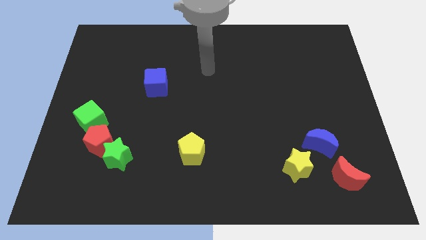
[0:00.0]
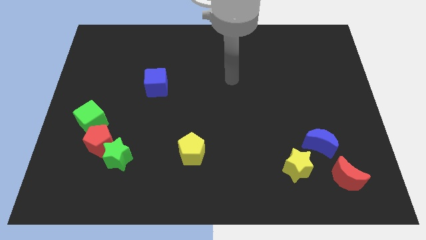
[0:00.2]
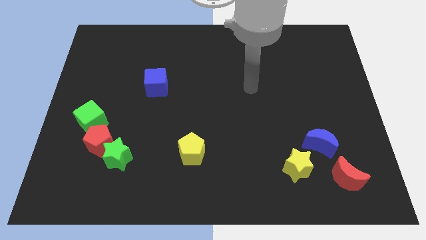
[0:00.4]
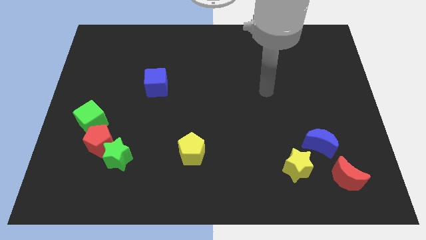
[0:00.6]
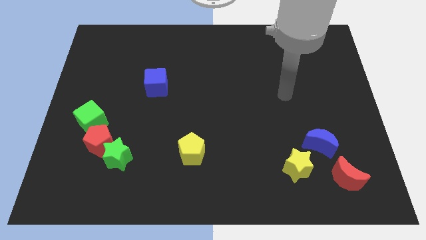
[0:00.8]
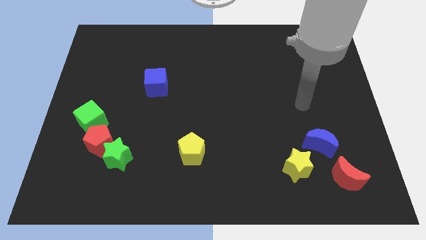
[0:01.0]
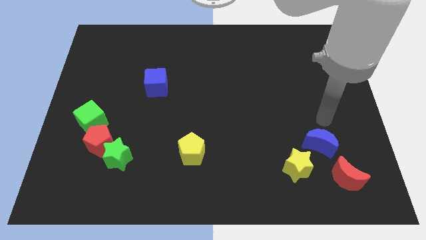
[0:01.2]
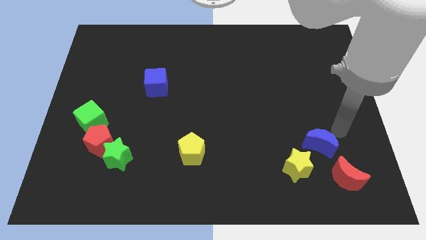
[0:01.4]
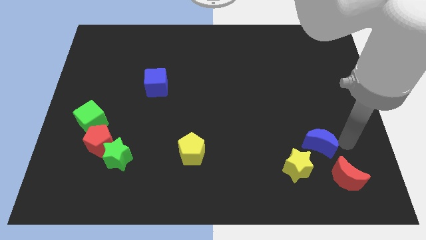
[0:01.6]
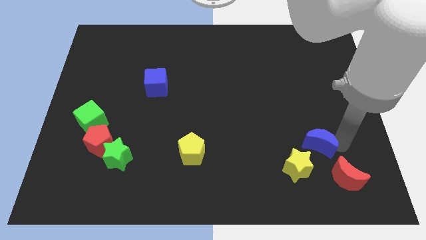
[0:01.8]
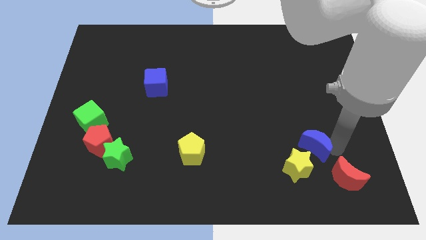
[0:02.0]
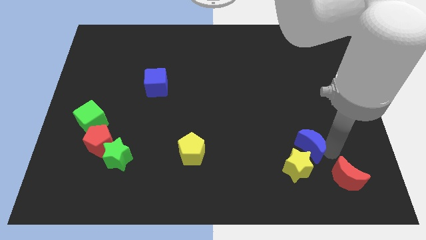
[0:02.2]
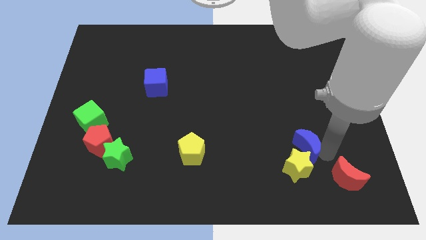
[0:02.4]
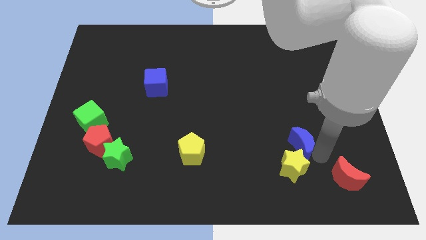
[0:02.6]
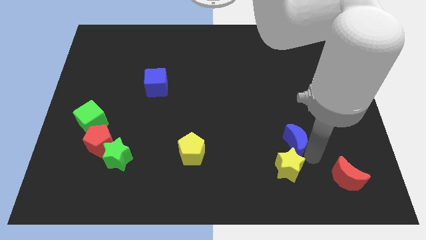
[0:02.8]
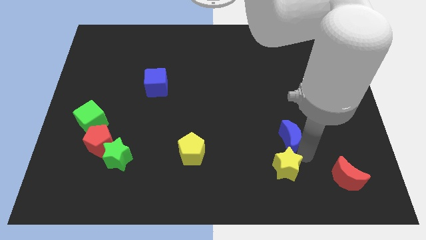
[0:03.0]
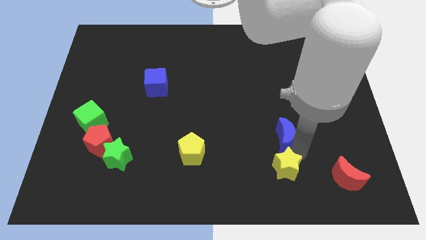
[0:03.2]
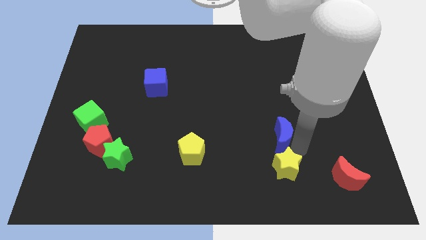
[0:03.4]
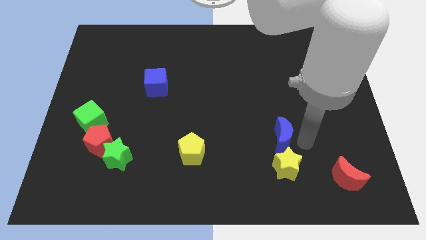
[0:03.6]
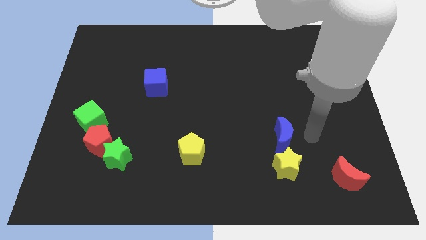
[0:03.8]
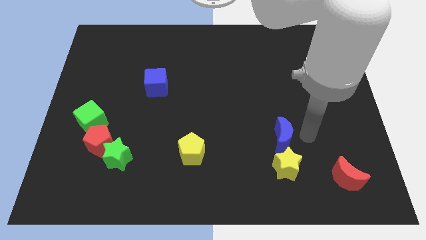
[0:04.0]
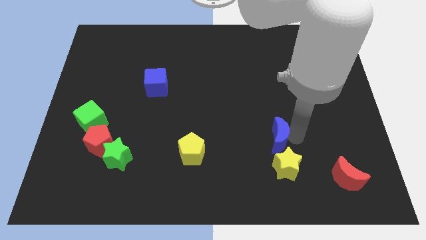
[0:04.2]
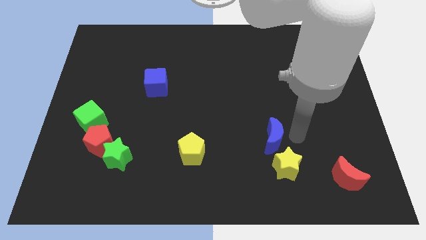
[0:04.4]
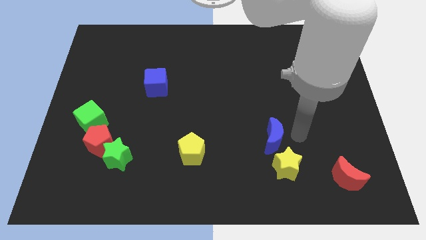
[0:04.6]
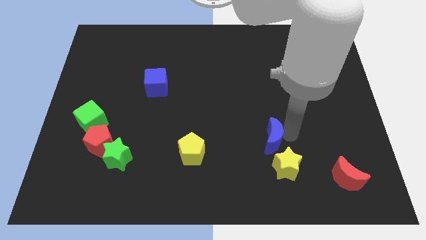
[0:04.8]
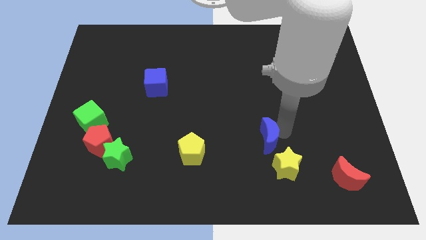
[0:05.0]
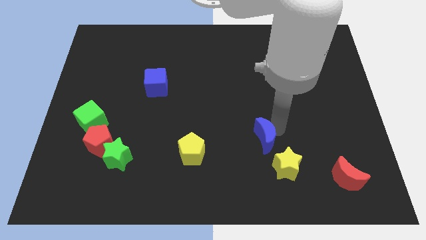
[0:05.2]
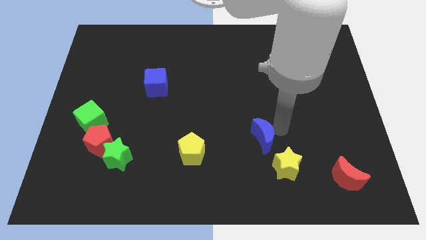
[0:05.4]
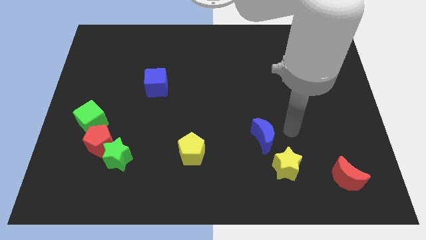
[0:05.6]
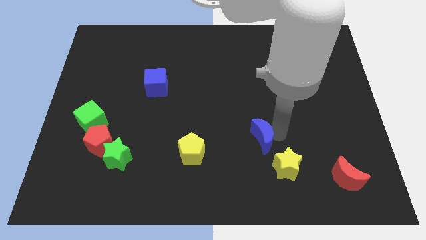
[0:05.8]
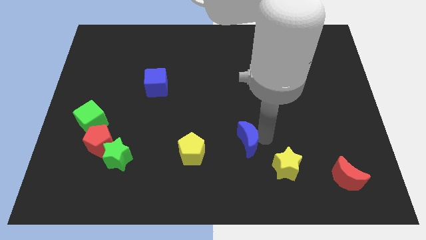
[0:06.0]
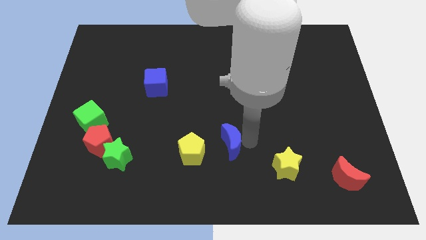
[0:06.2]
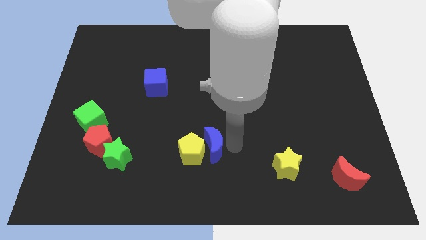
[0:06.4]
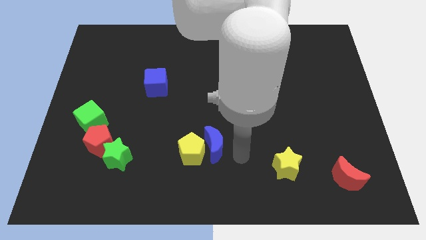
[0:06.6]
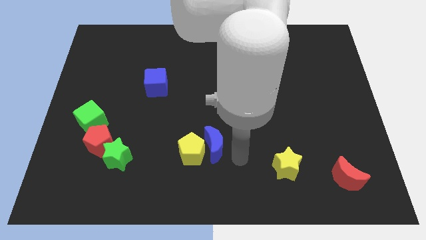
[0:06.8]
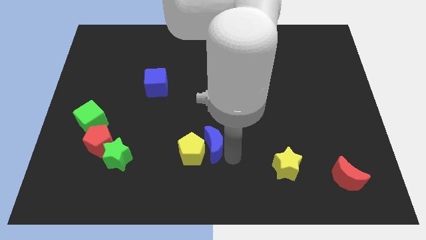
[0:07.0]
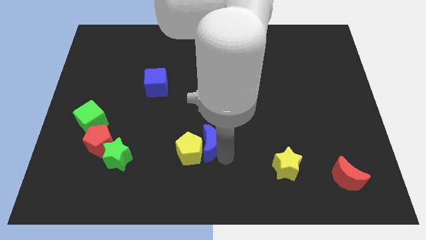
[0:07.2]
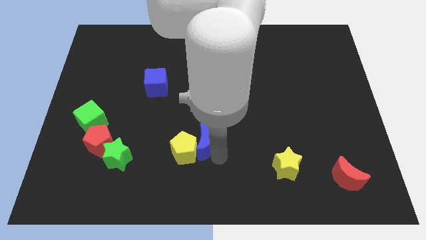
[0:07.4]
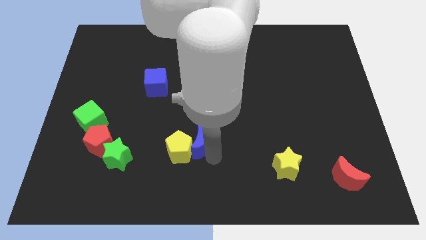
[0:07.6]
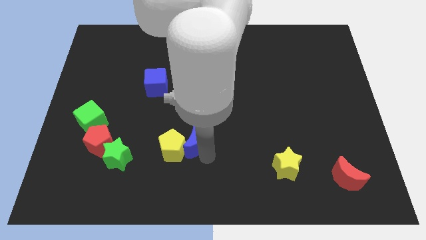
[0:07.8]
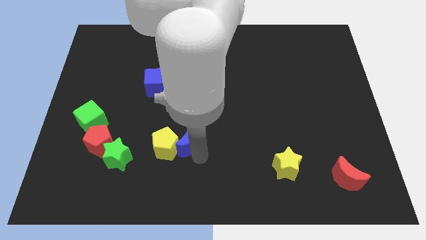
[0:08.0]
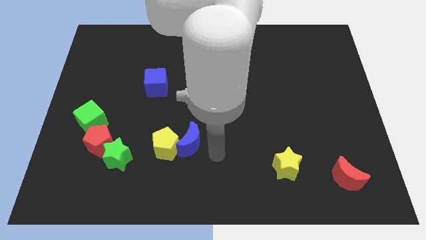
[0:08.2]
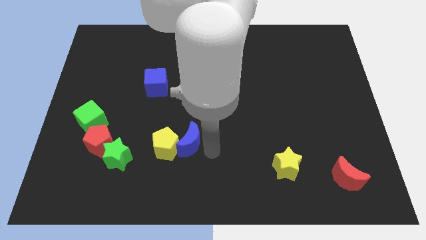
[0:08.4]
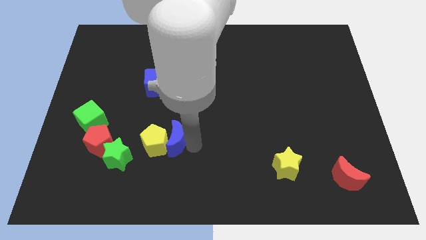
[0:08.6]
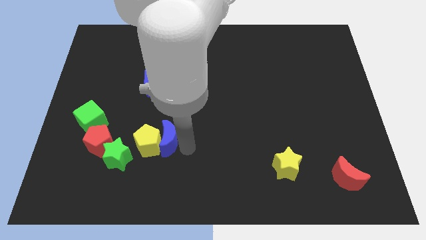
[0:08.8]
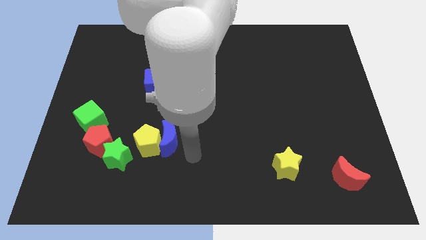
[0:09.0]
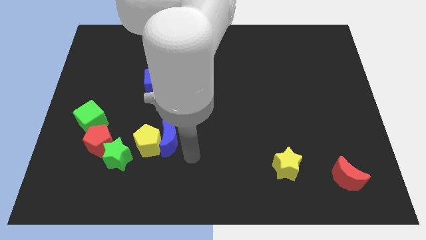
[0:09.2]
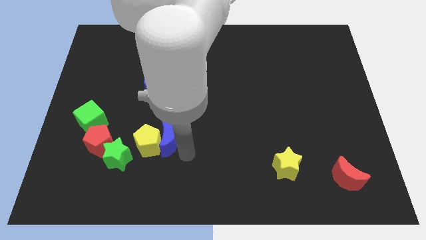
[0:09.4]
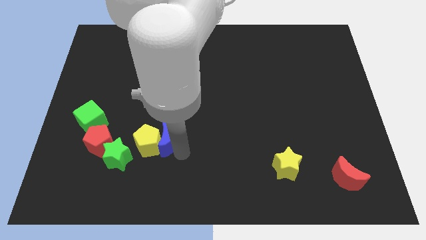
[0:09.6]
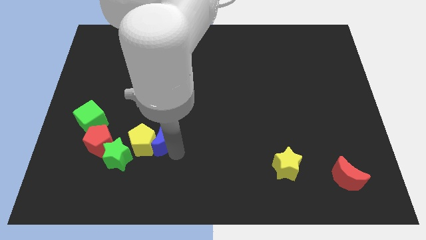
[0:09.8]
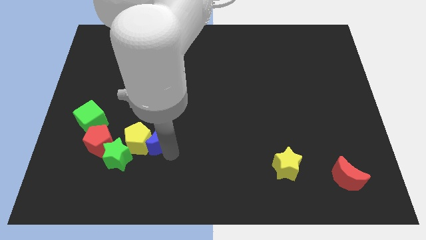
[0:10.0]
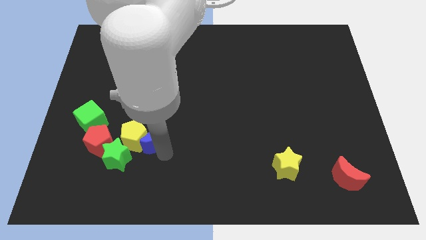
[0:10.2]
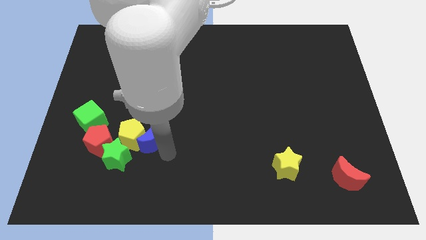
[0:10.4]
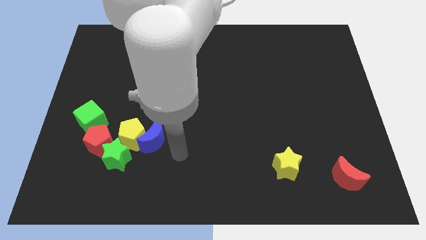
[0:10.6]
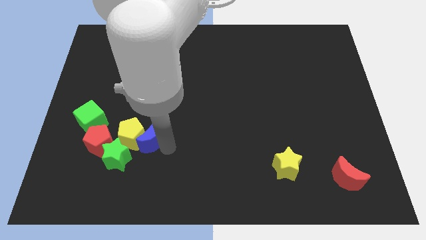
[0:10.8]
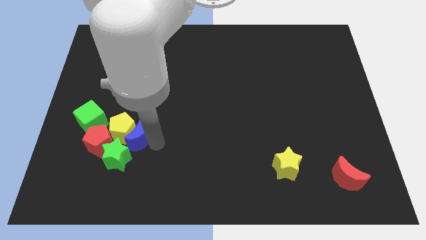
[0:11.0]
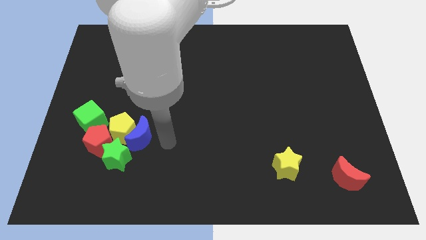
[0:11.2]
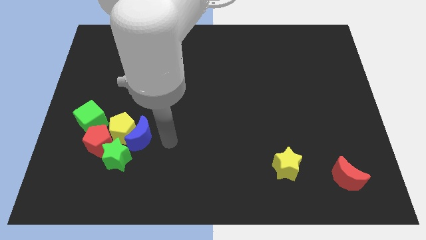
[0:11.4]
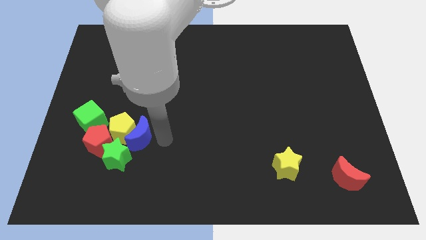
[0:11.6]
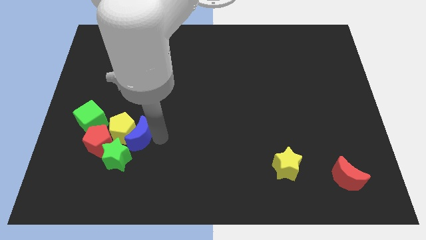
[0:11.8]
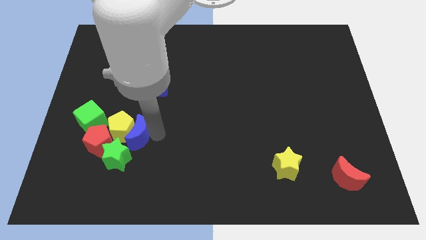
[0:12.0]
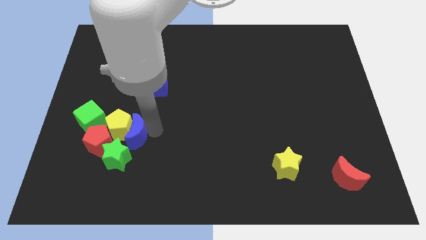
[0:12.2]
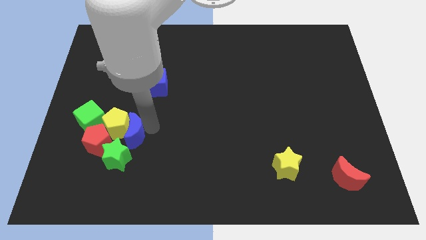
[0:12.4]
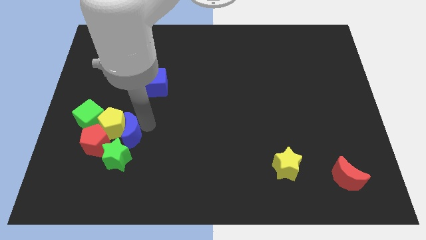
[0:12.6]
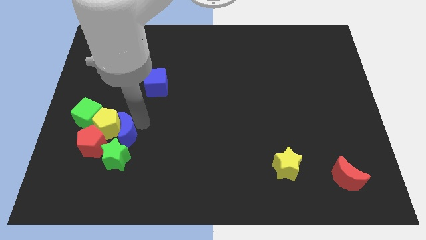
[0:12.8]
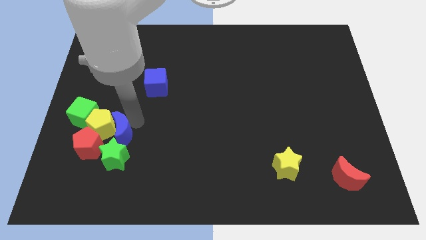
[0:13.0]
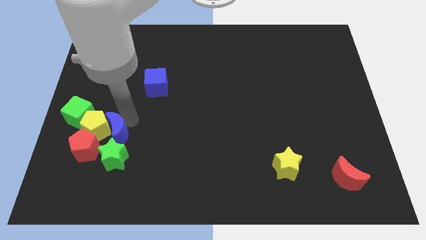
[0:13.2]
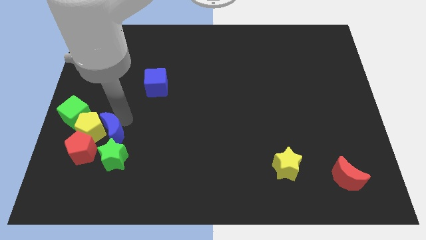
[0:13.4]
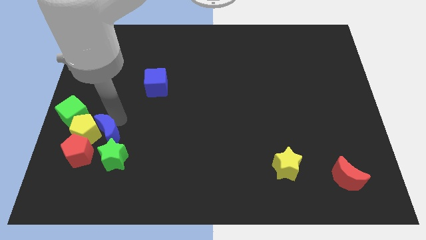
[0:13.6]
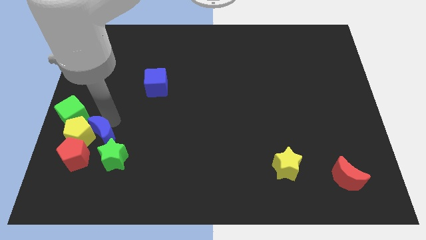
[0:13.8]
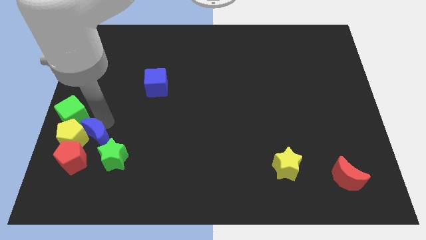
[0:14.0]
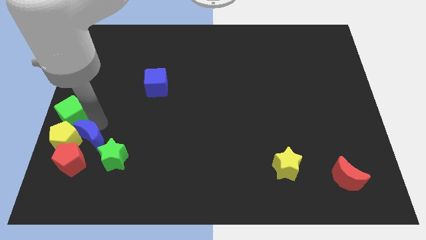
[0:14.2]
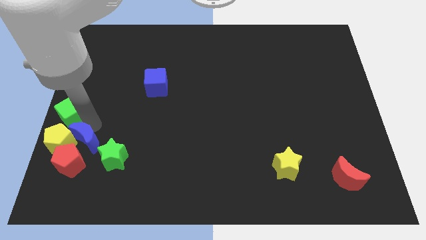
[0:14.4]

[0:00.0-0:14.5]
put the blue moon to the red pentagon
